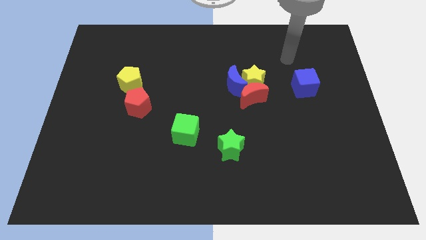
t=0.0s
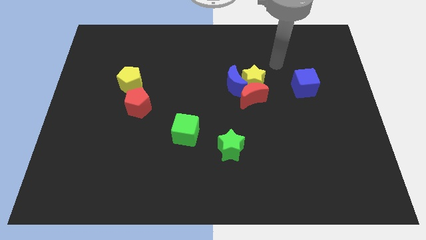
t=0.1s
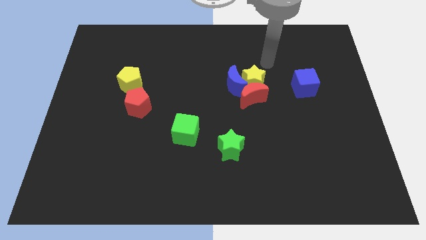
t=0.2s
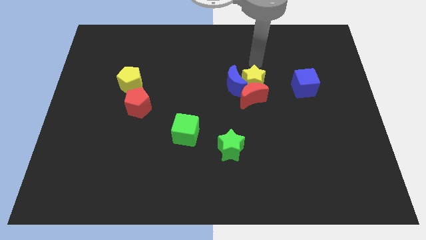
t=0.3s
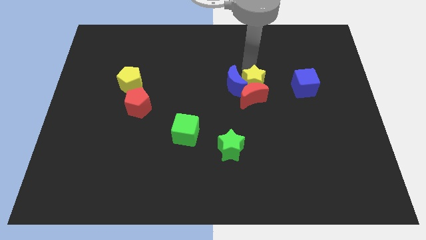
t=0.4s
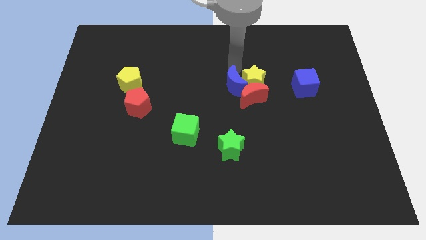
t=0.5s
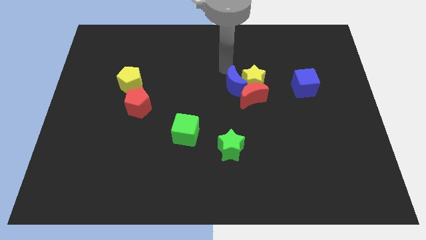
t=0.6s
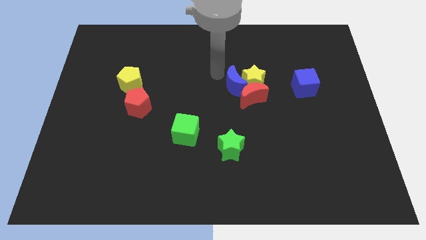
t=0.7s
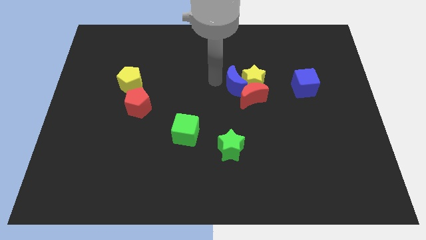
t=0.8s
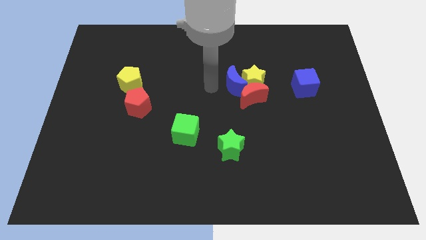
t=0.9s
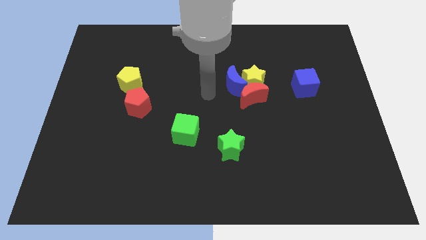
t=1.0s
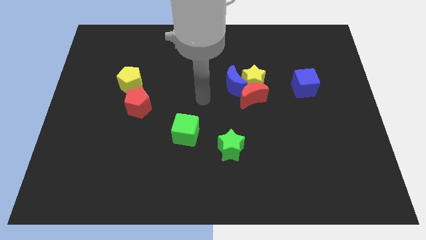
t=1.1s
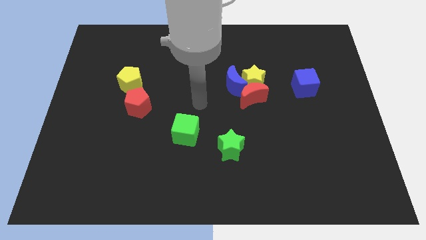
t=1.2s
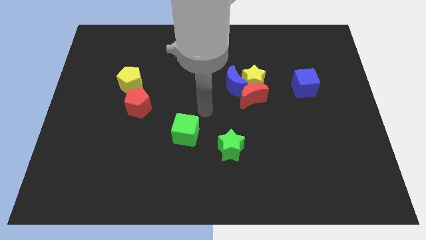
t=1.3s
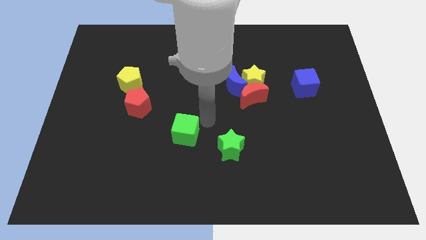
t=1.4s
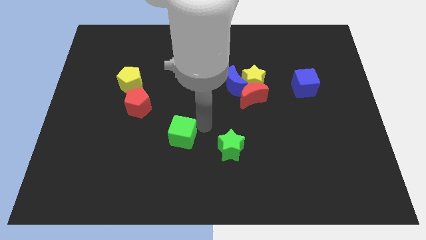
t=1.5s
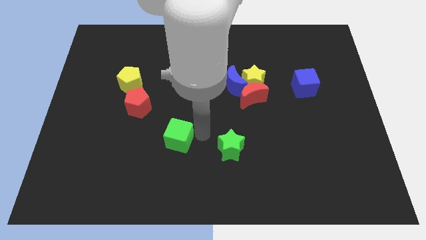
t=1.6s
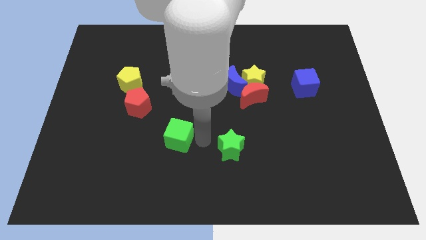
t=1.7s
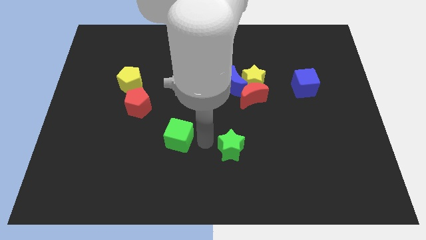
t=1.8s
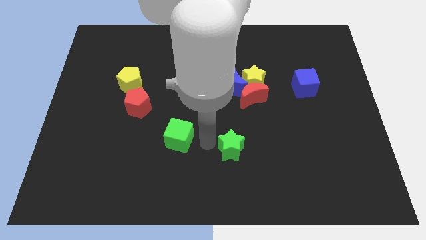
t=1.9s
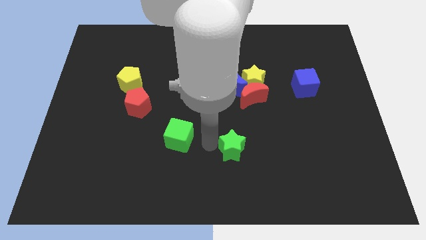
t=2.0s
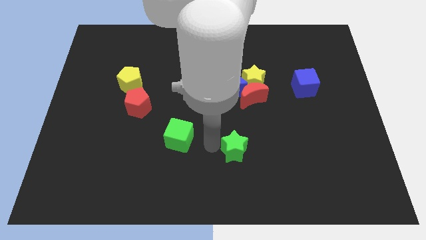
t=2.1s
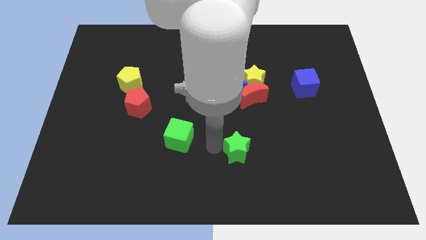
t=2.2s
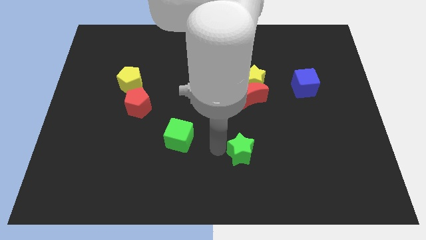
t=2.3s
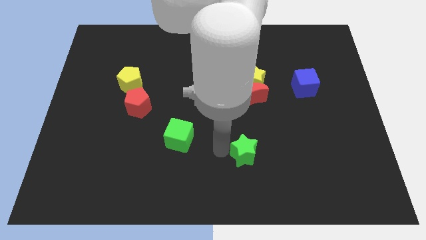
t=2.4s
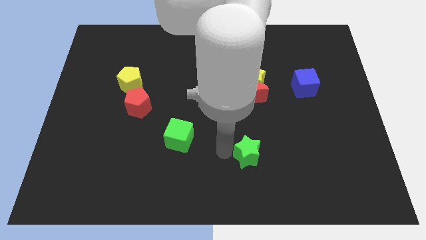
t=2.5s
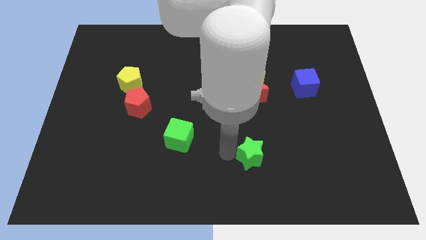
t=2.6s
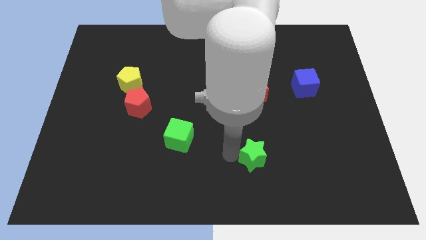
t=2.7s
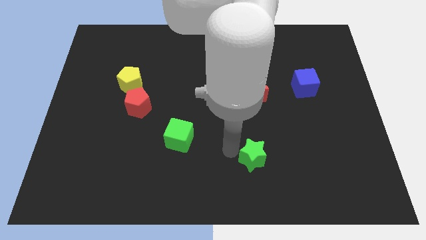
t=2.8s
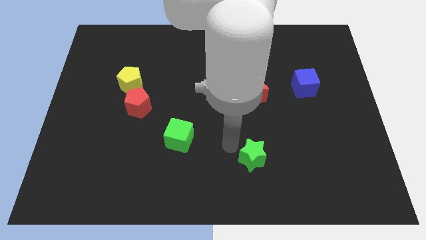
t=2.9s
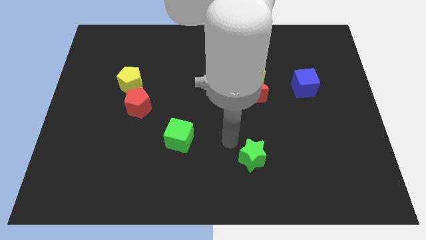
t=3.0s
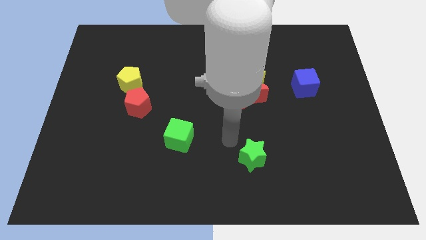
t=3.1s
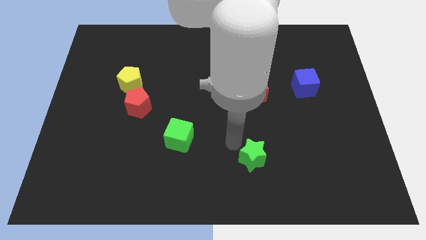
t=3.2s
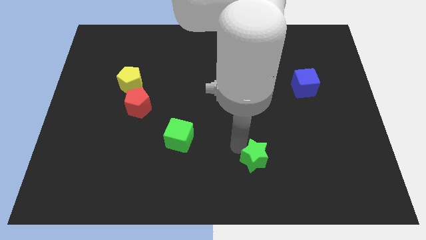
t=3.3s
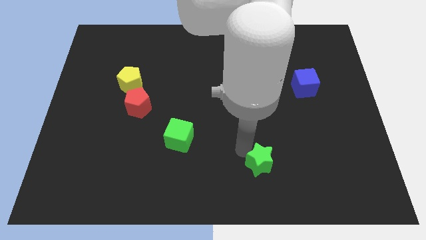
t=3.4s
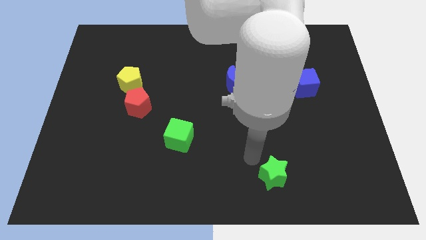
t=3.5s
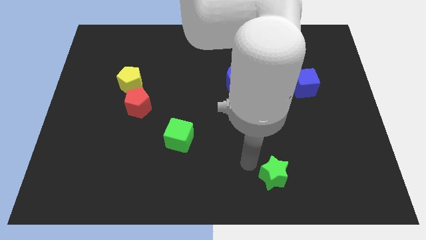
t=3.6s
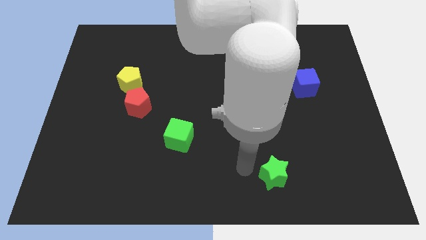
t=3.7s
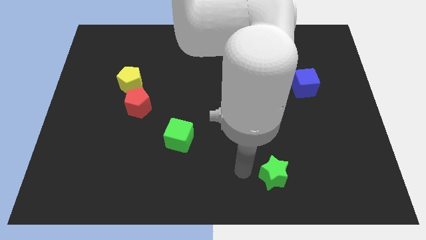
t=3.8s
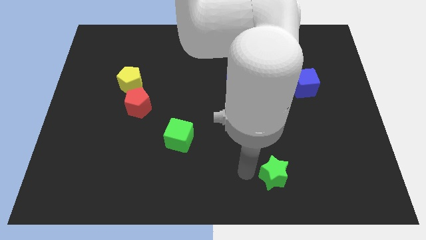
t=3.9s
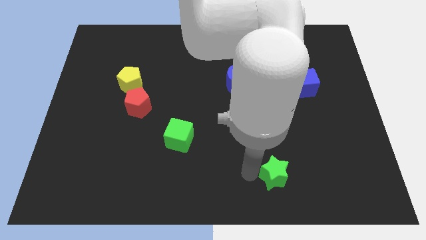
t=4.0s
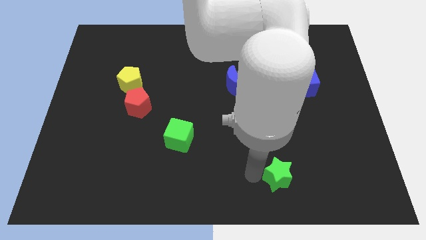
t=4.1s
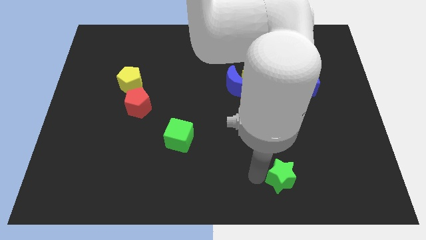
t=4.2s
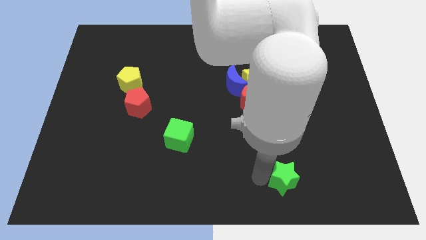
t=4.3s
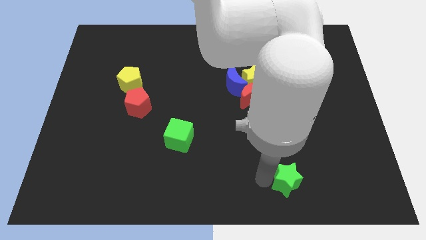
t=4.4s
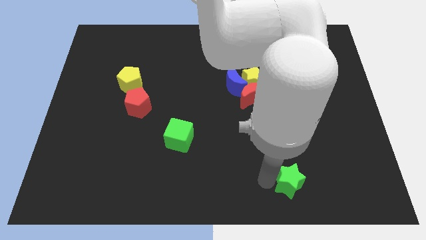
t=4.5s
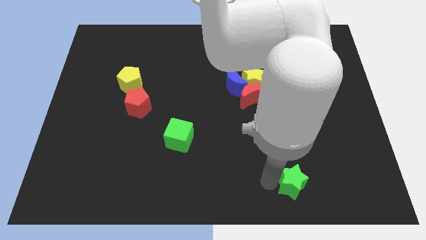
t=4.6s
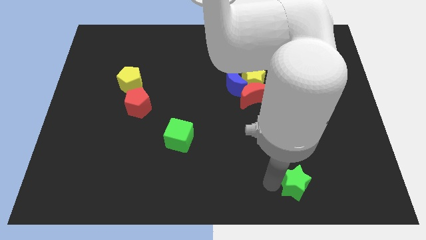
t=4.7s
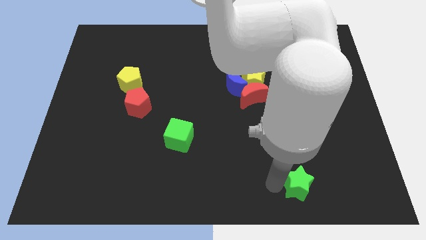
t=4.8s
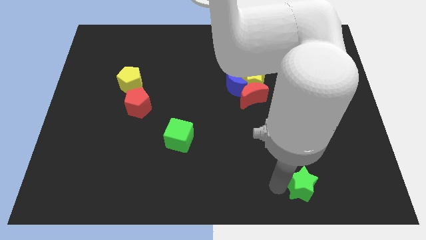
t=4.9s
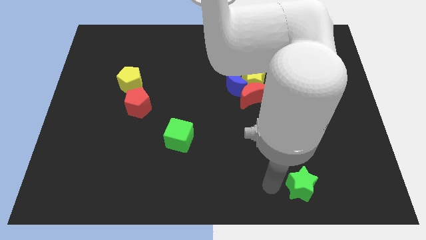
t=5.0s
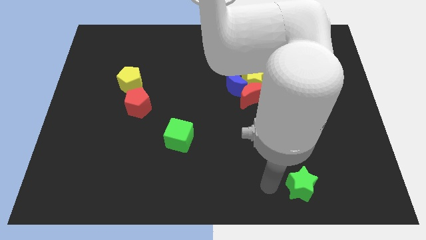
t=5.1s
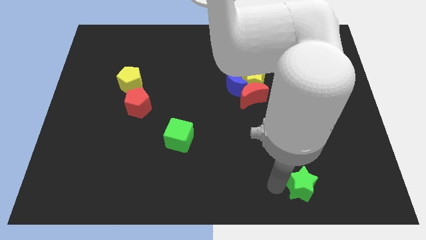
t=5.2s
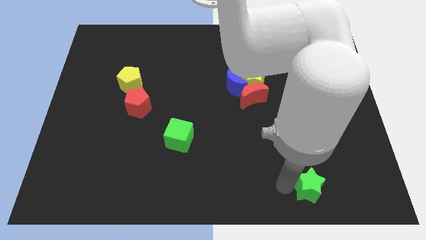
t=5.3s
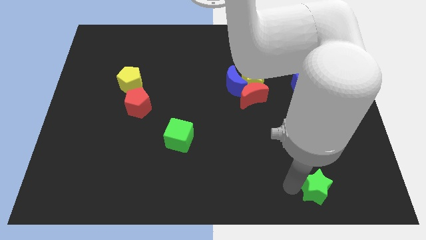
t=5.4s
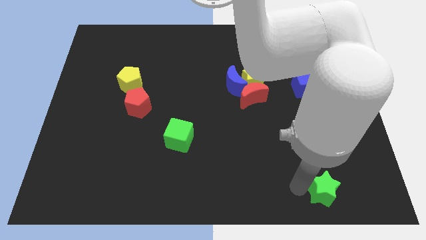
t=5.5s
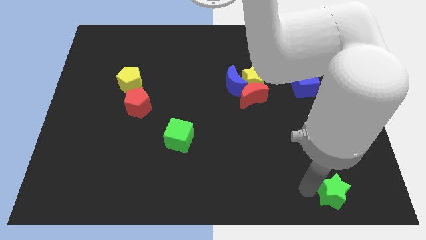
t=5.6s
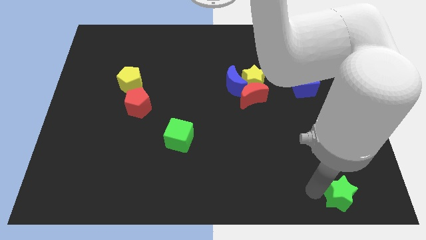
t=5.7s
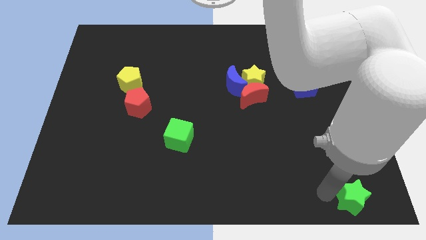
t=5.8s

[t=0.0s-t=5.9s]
push the green star to the bottom right
